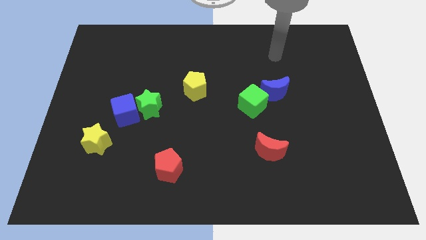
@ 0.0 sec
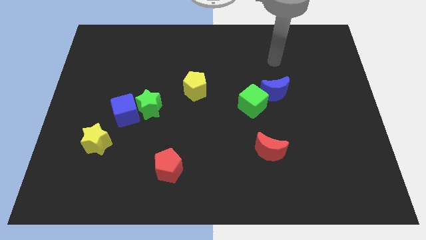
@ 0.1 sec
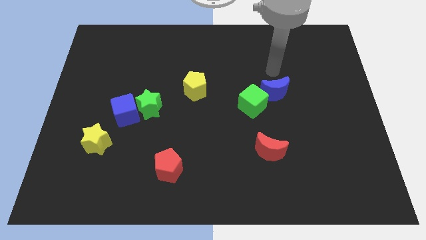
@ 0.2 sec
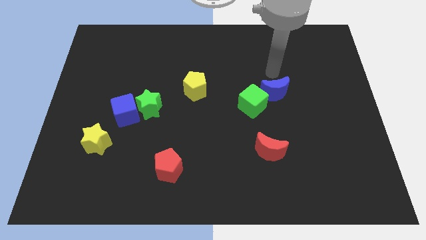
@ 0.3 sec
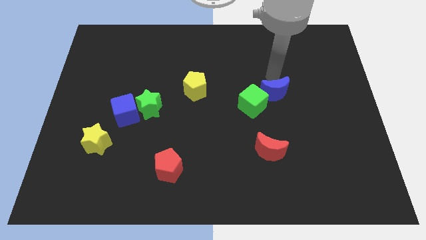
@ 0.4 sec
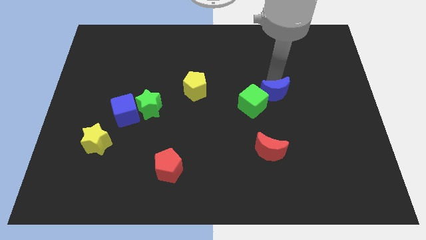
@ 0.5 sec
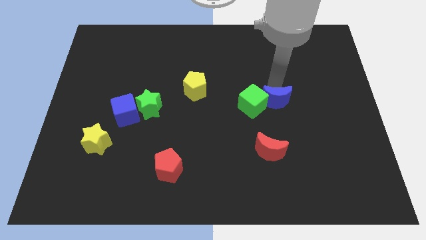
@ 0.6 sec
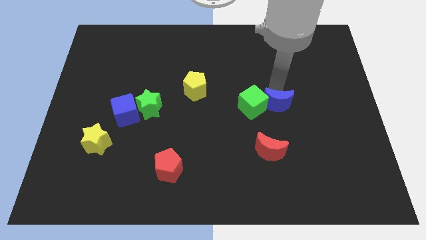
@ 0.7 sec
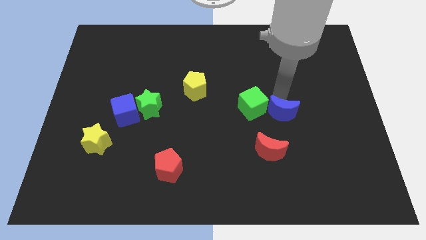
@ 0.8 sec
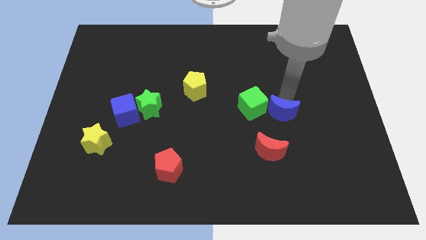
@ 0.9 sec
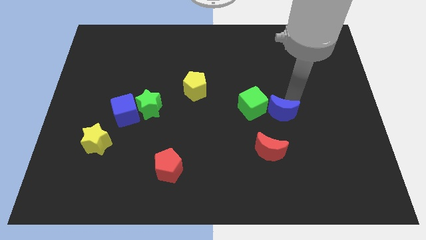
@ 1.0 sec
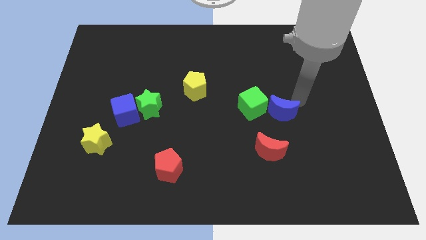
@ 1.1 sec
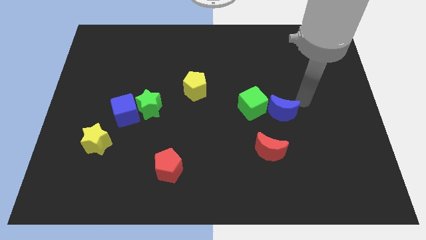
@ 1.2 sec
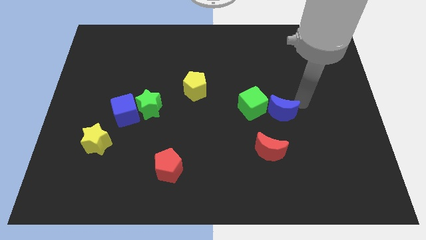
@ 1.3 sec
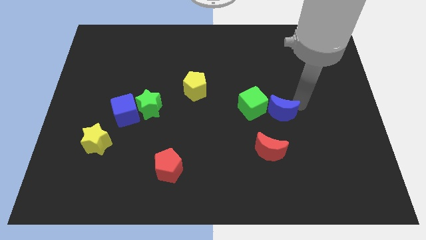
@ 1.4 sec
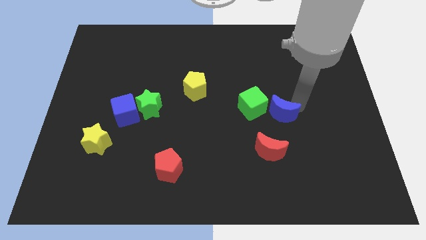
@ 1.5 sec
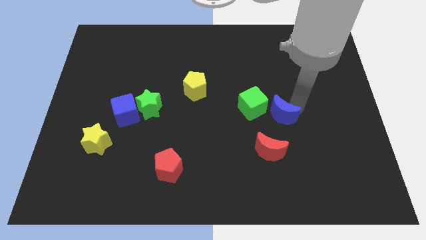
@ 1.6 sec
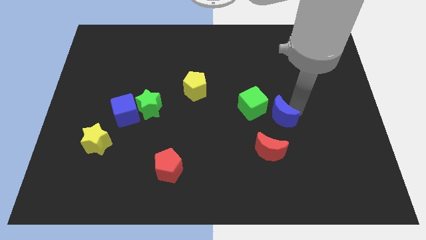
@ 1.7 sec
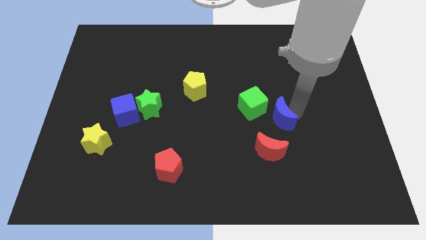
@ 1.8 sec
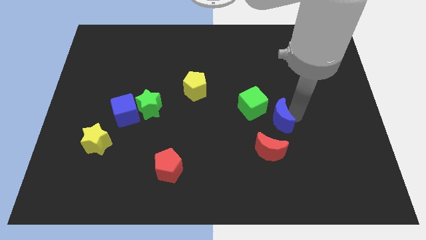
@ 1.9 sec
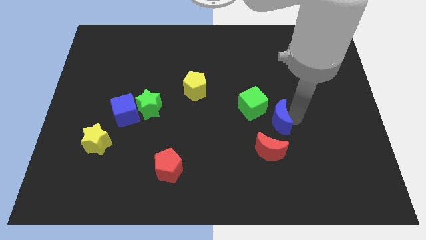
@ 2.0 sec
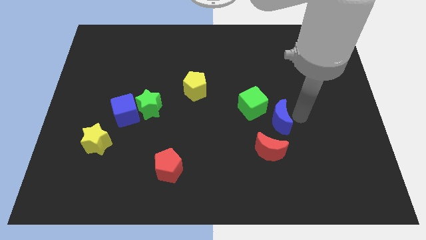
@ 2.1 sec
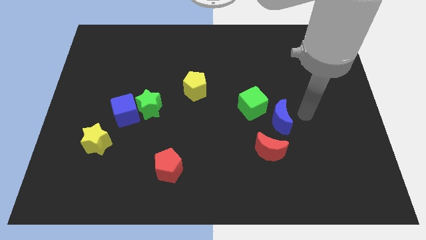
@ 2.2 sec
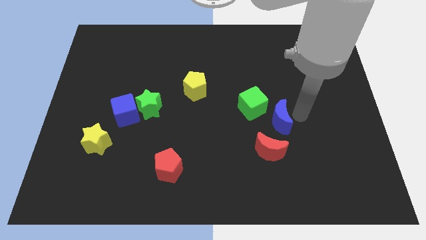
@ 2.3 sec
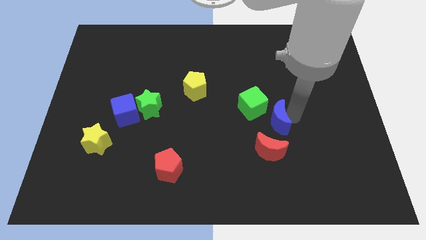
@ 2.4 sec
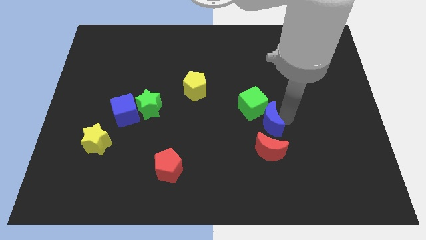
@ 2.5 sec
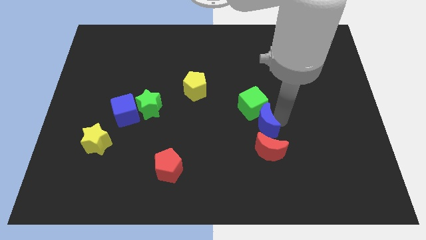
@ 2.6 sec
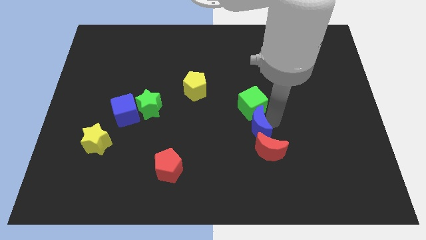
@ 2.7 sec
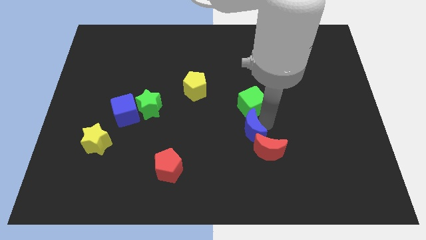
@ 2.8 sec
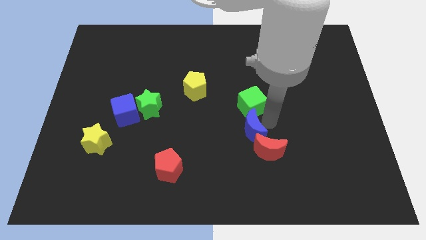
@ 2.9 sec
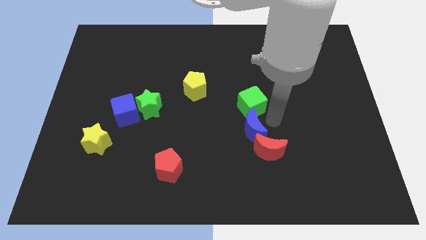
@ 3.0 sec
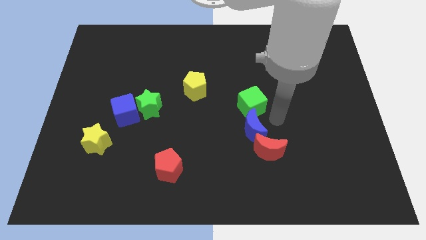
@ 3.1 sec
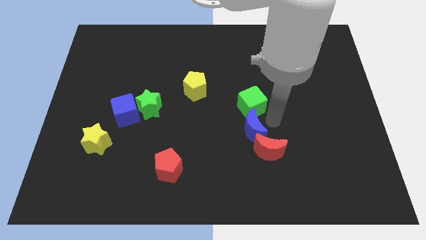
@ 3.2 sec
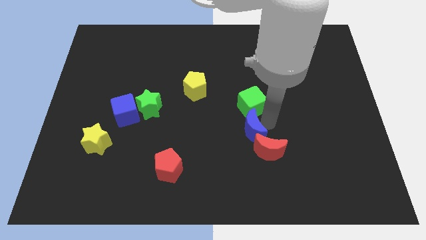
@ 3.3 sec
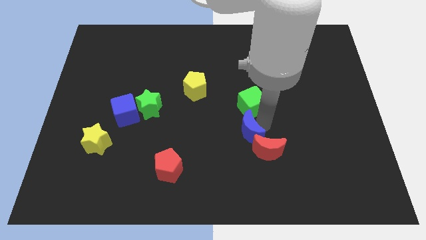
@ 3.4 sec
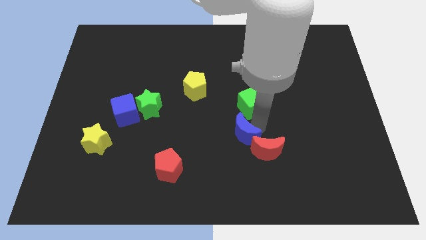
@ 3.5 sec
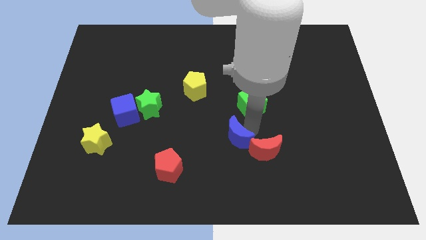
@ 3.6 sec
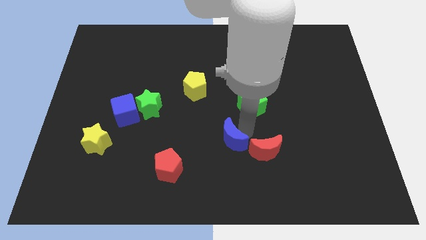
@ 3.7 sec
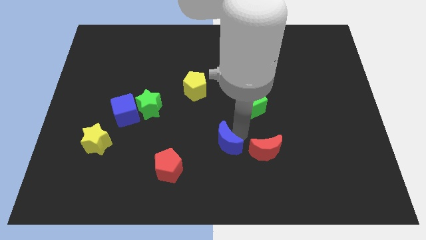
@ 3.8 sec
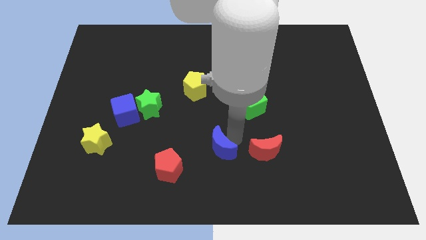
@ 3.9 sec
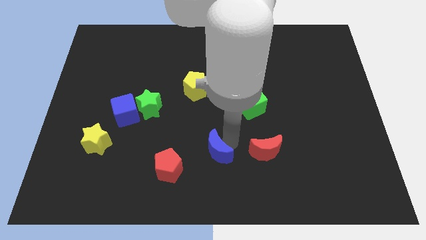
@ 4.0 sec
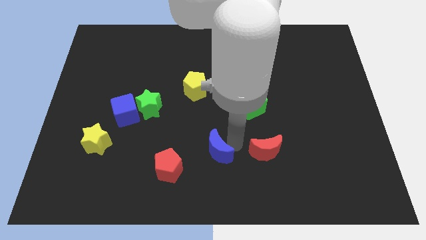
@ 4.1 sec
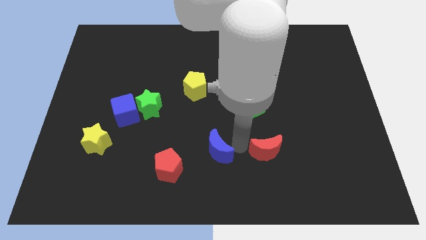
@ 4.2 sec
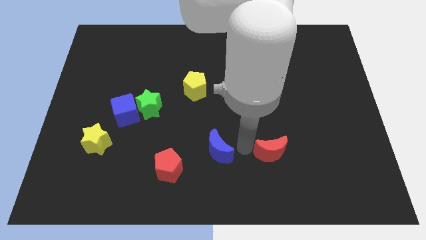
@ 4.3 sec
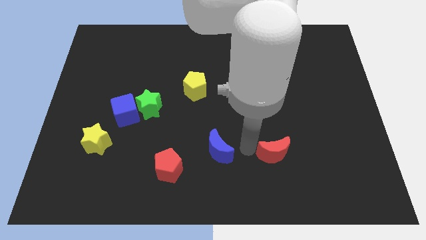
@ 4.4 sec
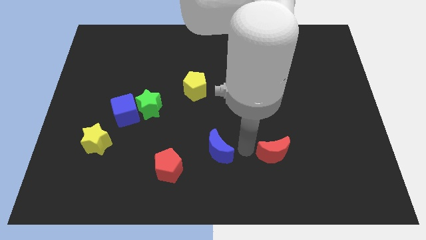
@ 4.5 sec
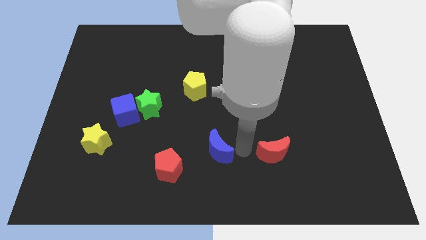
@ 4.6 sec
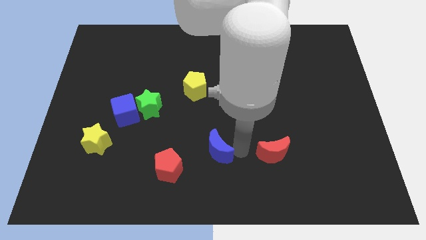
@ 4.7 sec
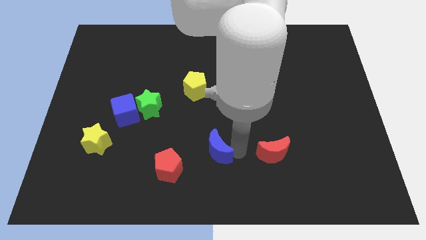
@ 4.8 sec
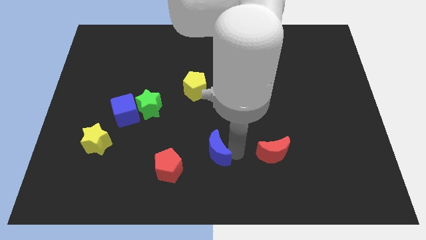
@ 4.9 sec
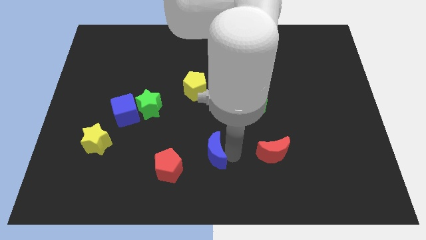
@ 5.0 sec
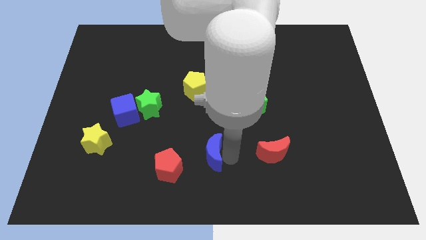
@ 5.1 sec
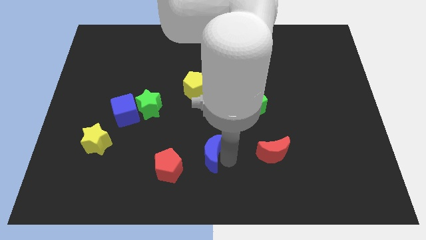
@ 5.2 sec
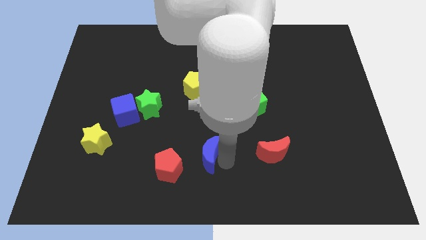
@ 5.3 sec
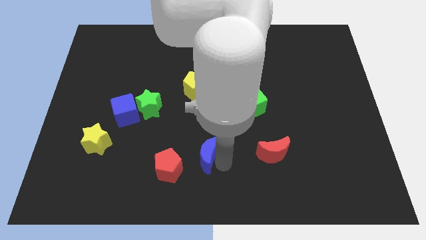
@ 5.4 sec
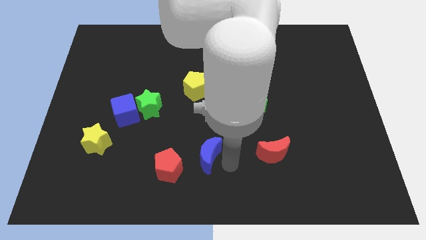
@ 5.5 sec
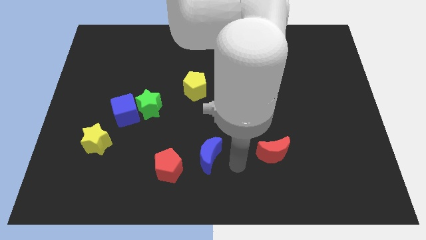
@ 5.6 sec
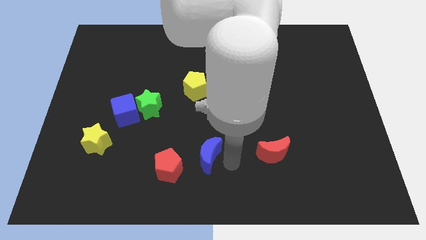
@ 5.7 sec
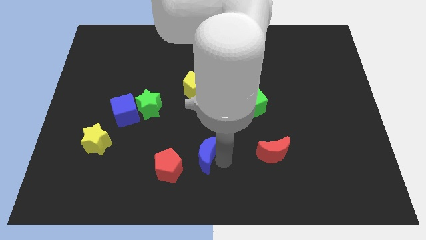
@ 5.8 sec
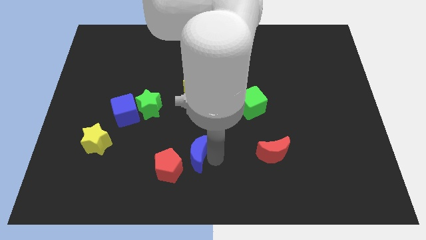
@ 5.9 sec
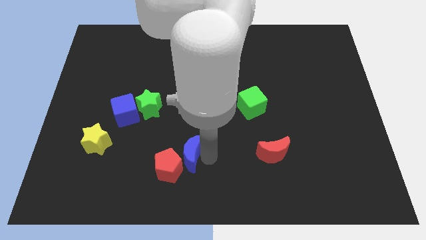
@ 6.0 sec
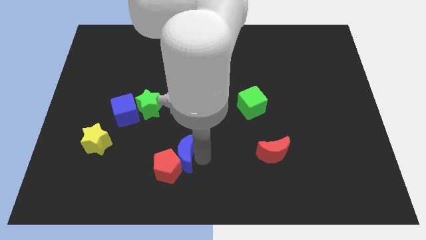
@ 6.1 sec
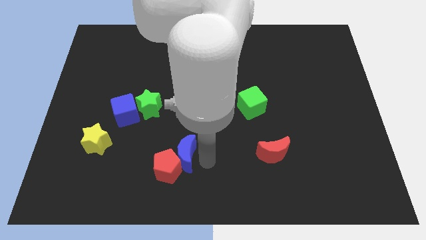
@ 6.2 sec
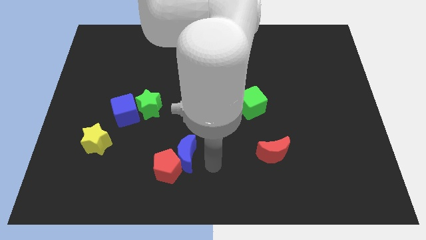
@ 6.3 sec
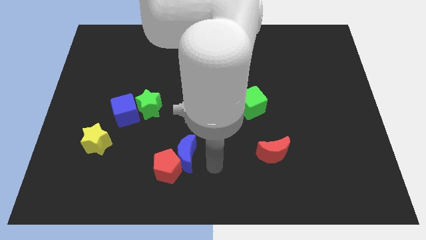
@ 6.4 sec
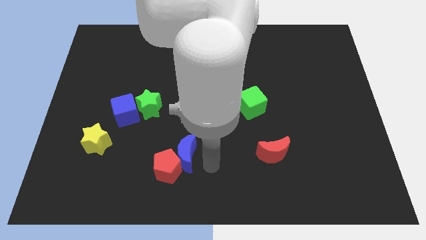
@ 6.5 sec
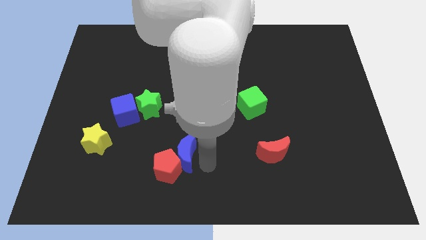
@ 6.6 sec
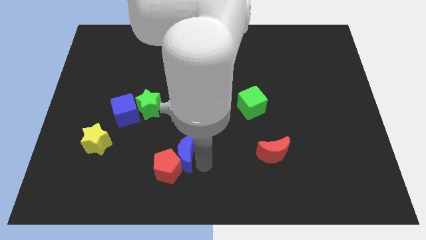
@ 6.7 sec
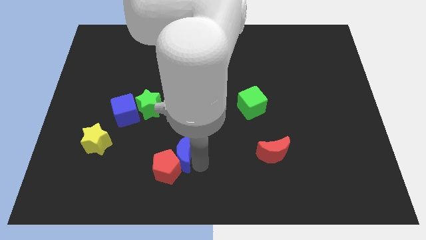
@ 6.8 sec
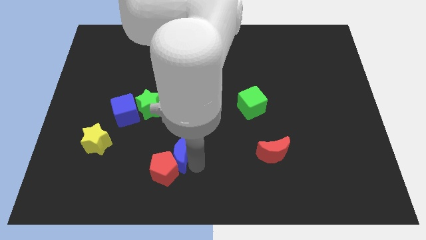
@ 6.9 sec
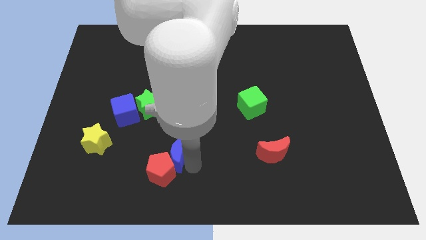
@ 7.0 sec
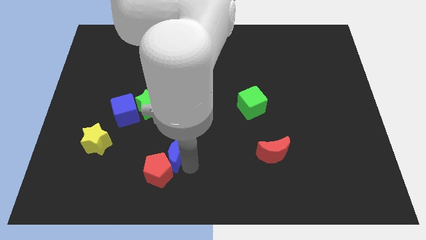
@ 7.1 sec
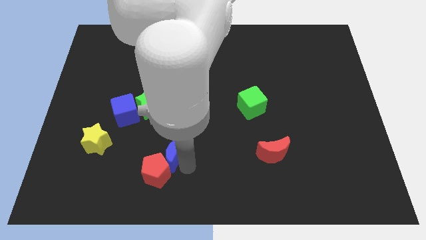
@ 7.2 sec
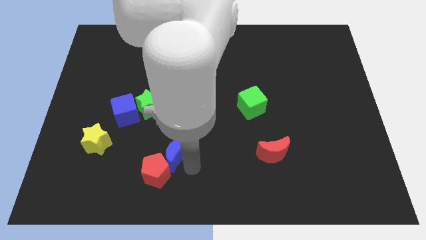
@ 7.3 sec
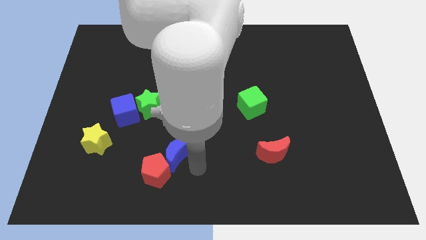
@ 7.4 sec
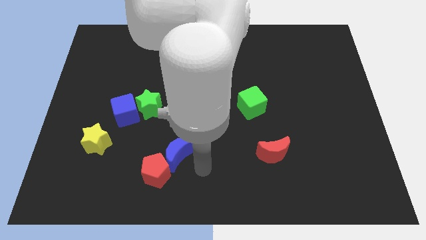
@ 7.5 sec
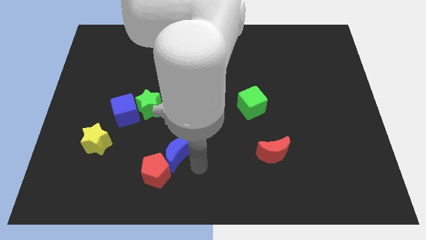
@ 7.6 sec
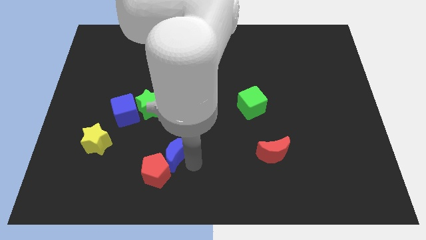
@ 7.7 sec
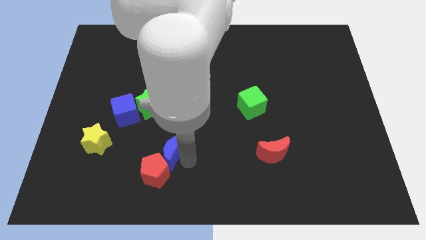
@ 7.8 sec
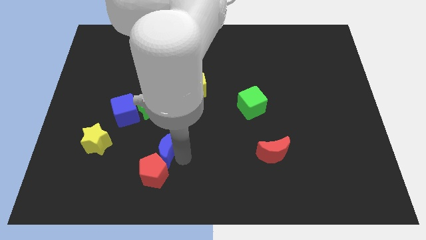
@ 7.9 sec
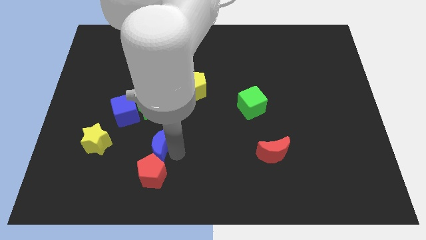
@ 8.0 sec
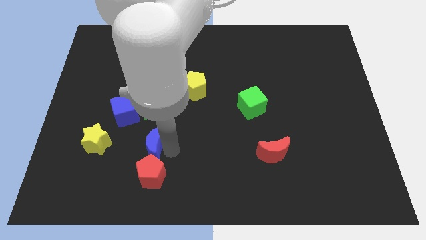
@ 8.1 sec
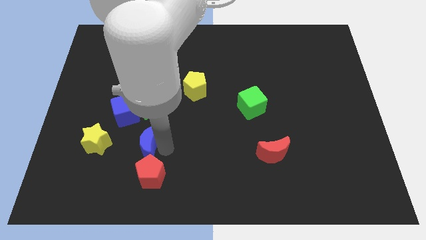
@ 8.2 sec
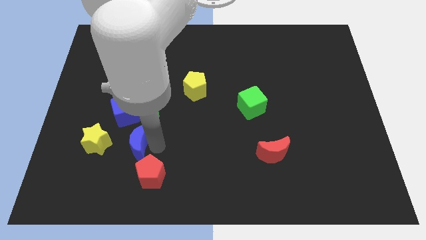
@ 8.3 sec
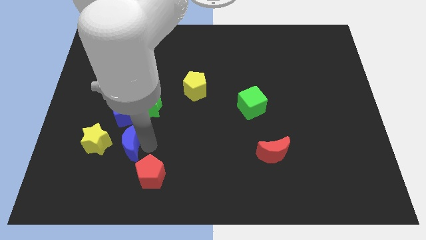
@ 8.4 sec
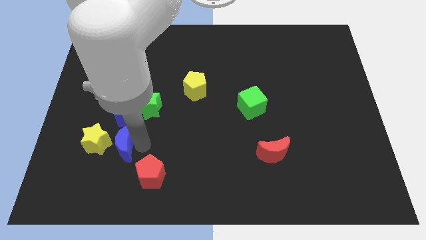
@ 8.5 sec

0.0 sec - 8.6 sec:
move the blue moon towards the yellow star
